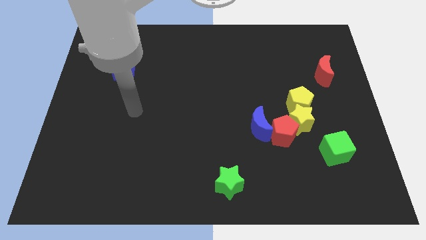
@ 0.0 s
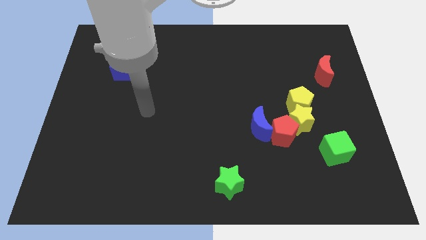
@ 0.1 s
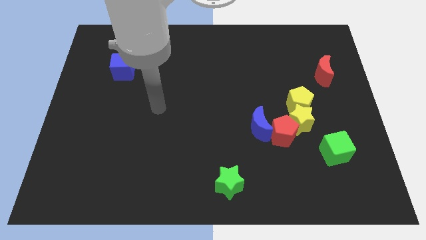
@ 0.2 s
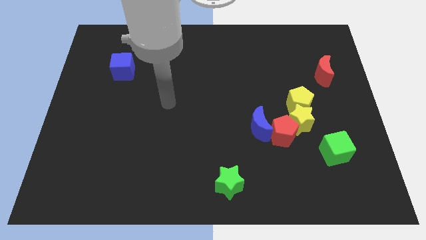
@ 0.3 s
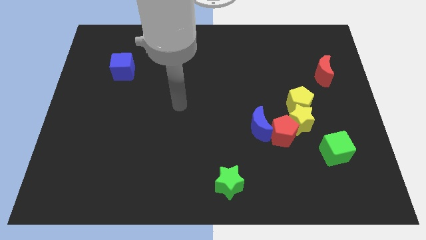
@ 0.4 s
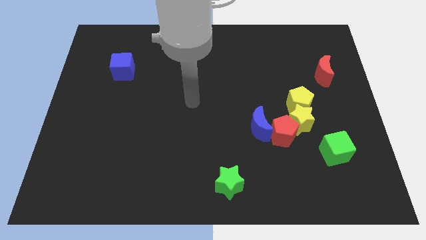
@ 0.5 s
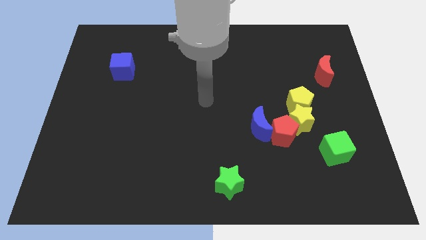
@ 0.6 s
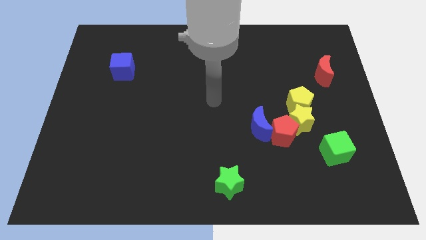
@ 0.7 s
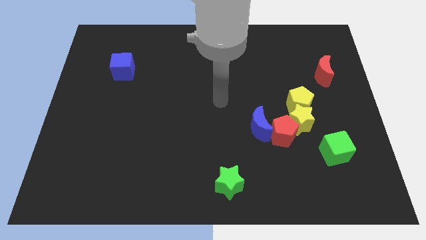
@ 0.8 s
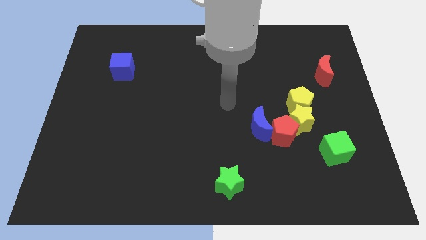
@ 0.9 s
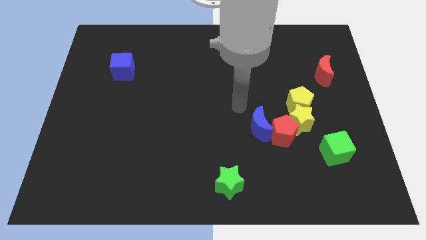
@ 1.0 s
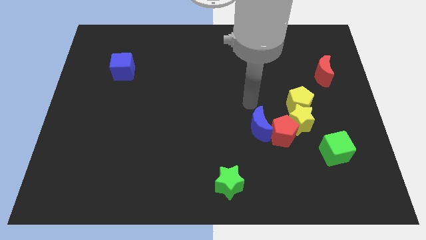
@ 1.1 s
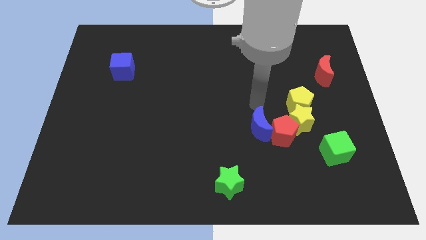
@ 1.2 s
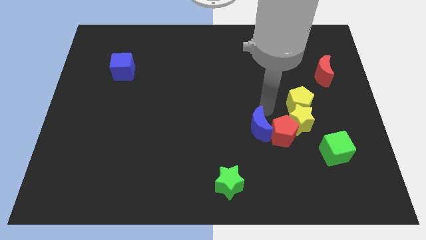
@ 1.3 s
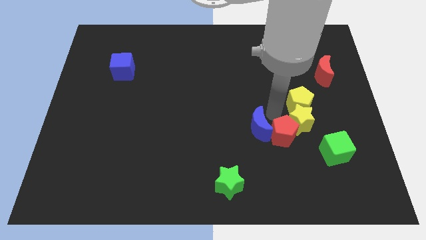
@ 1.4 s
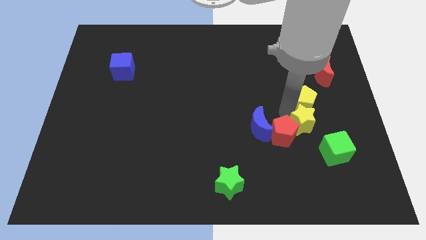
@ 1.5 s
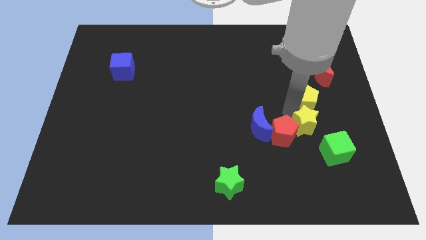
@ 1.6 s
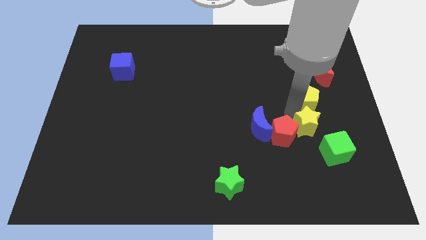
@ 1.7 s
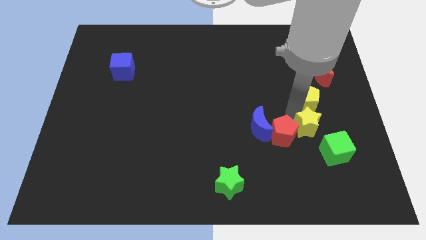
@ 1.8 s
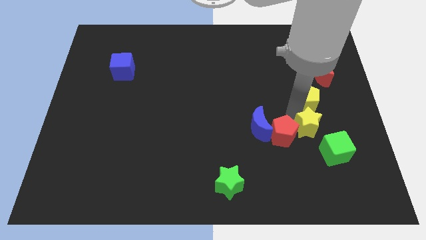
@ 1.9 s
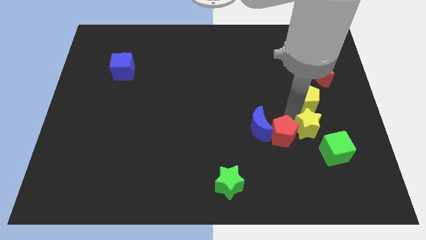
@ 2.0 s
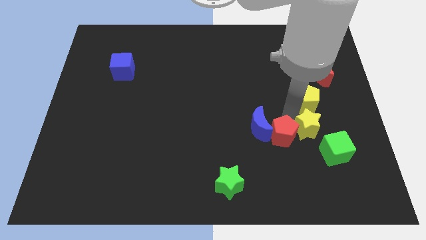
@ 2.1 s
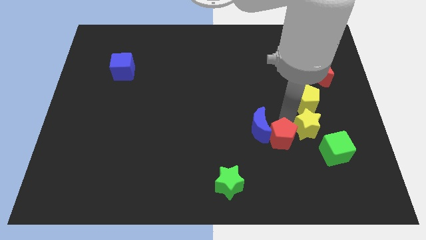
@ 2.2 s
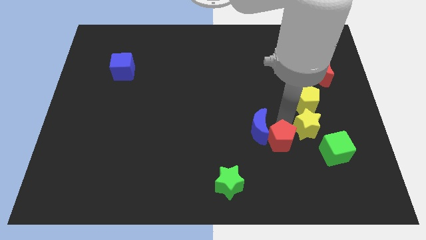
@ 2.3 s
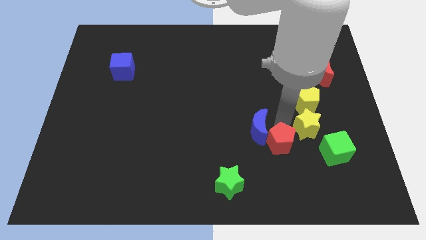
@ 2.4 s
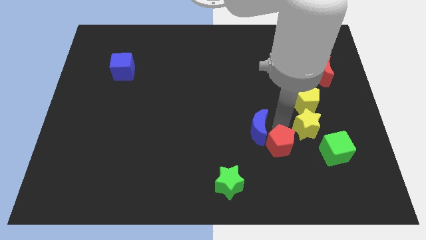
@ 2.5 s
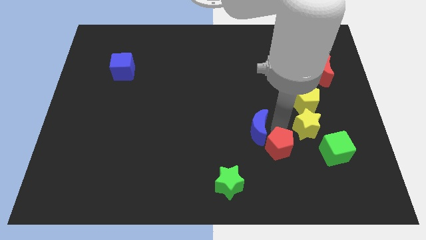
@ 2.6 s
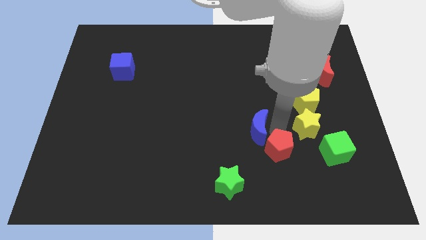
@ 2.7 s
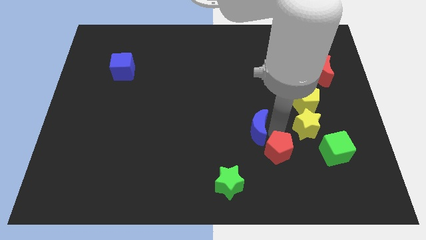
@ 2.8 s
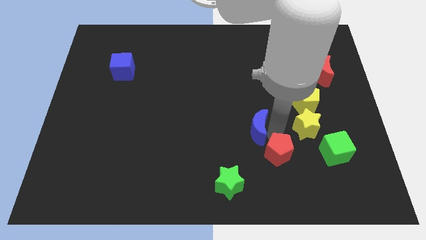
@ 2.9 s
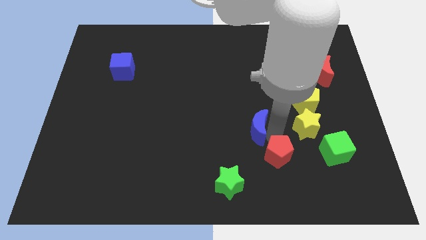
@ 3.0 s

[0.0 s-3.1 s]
separate the red pentagon from the yellow star, blue moon, and yellow pentagon

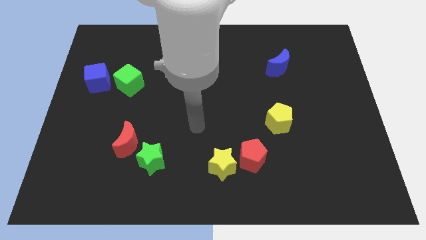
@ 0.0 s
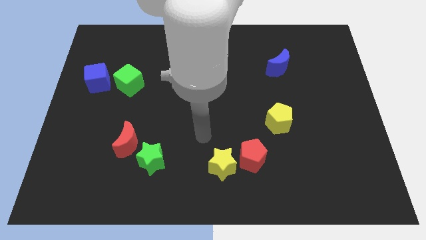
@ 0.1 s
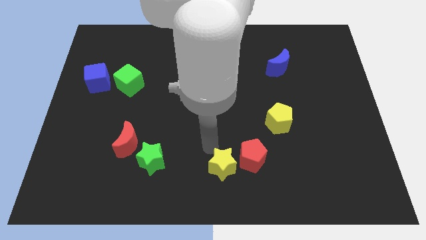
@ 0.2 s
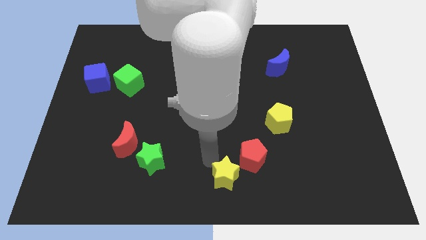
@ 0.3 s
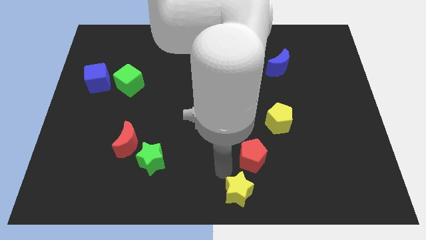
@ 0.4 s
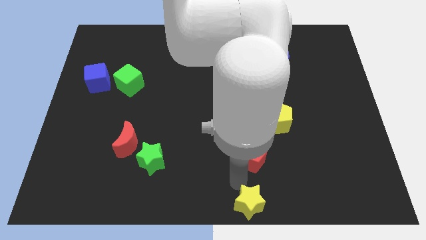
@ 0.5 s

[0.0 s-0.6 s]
pull the red pentagon apart from the yellow star

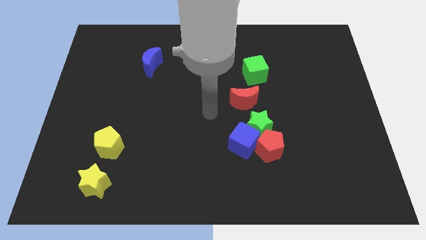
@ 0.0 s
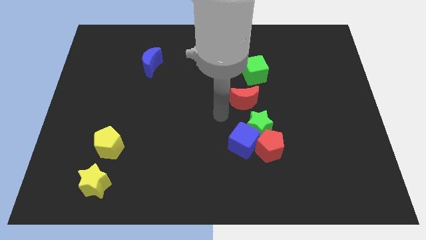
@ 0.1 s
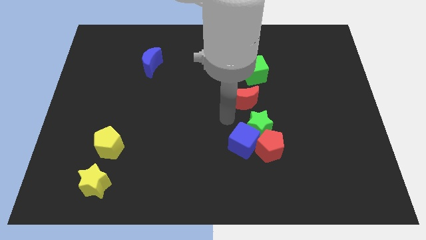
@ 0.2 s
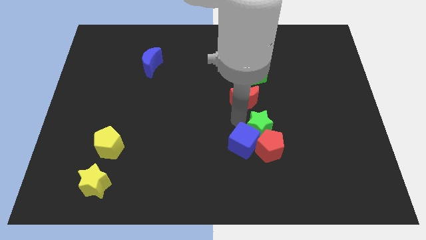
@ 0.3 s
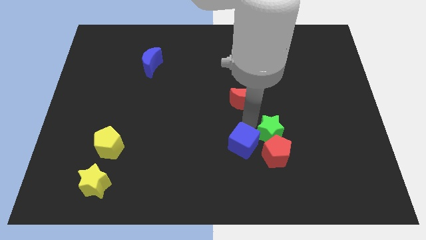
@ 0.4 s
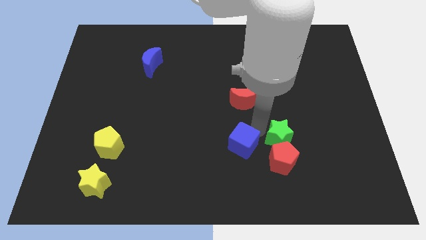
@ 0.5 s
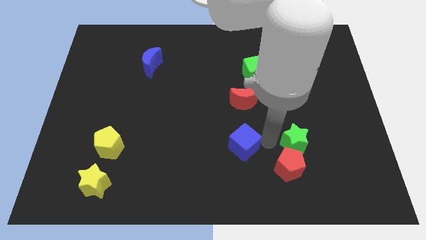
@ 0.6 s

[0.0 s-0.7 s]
move the blue cube away from the green star and red pentagon

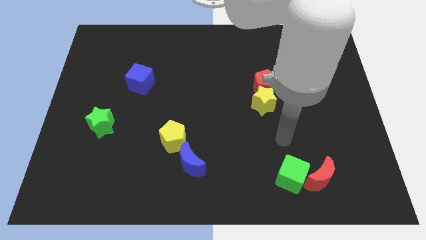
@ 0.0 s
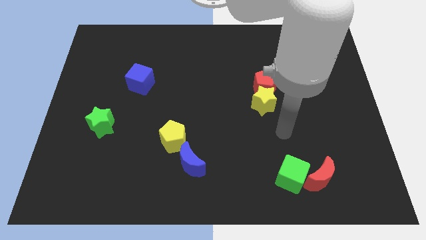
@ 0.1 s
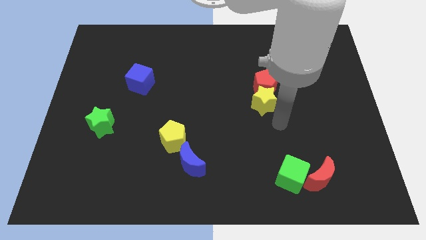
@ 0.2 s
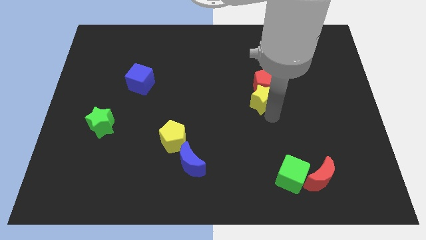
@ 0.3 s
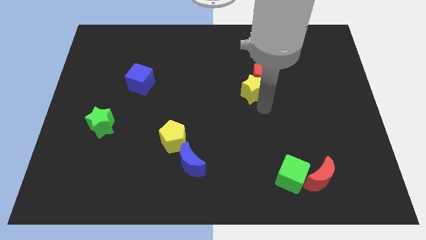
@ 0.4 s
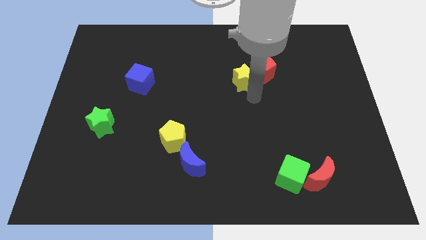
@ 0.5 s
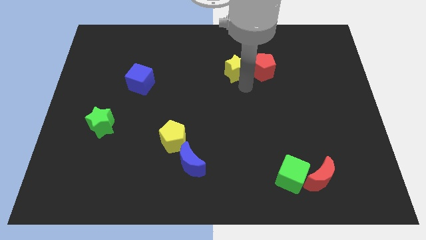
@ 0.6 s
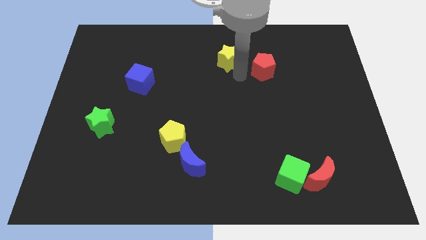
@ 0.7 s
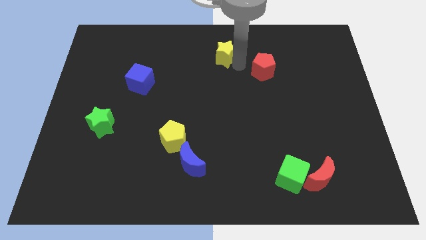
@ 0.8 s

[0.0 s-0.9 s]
move the red pentagon away from the yellow star

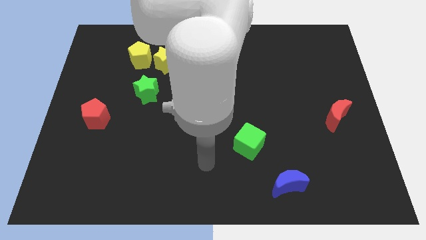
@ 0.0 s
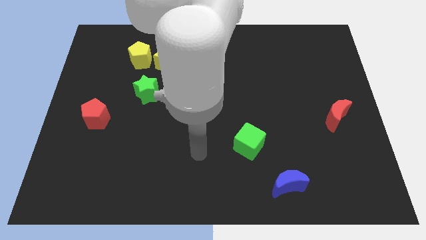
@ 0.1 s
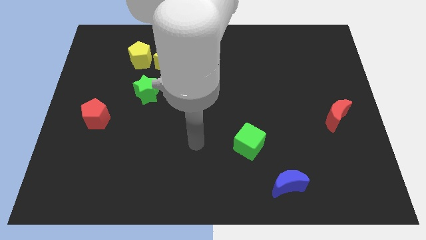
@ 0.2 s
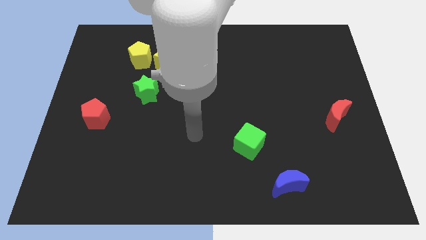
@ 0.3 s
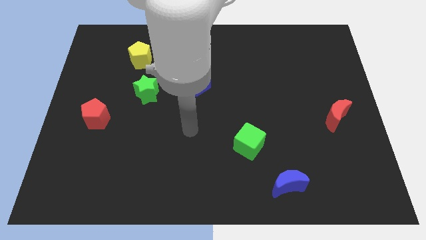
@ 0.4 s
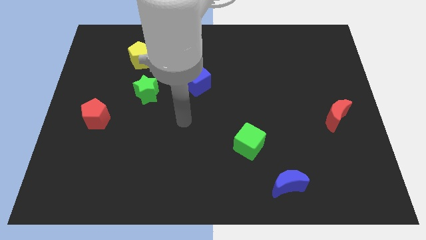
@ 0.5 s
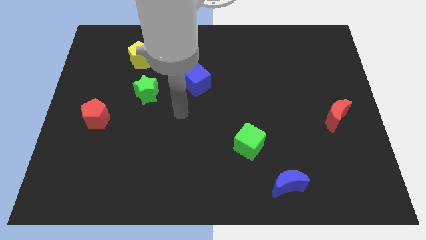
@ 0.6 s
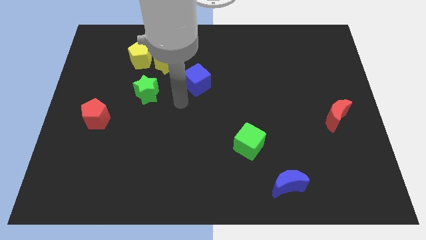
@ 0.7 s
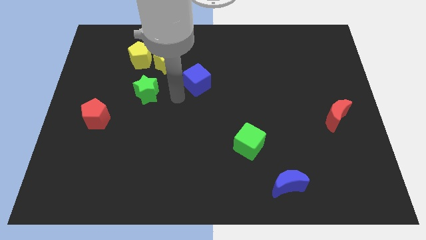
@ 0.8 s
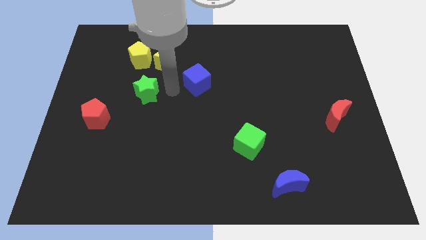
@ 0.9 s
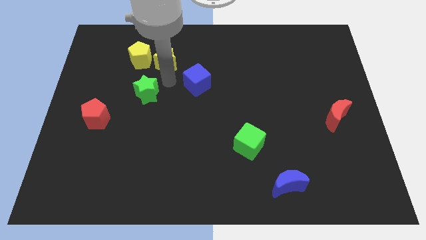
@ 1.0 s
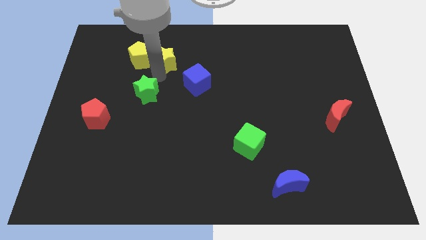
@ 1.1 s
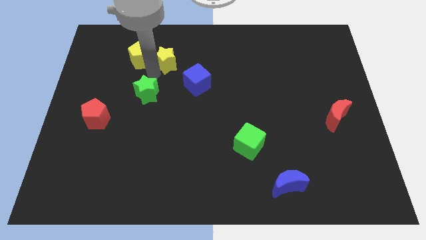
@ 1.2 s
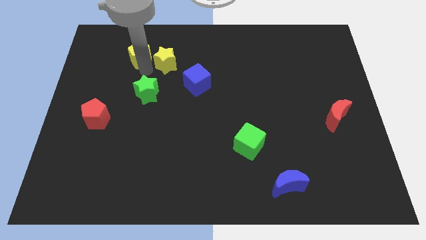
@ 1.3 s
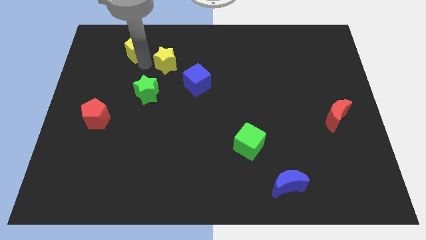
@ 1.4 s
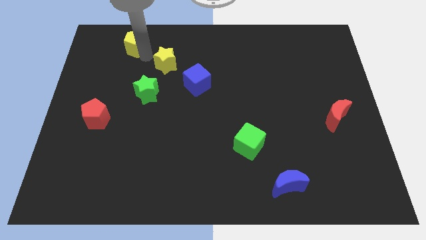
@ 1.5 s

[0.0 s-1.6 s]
move the yellow star away from the yellow pentagon

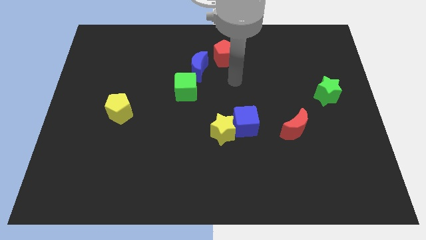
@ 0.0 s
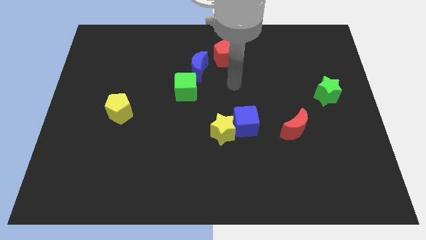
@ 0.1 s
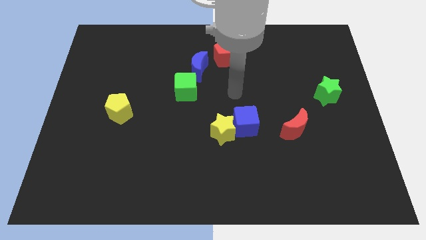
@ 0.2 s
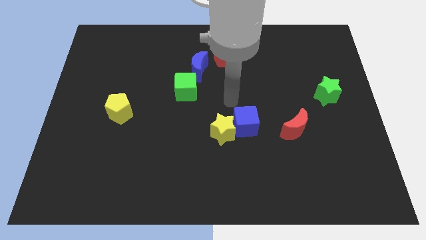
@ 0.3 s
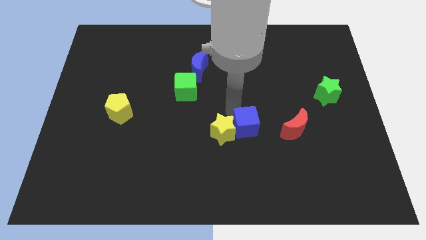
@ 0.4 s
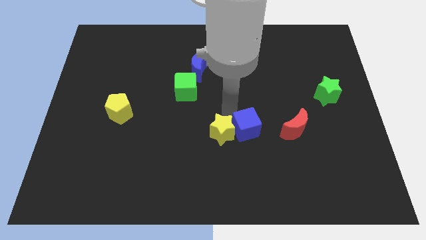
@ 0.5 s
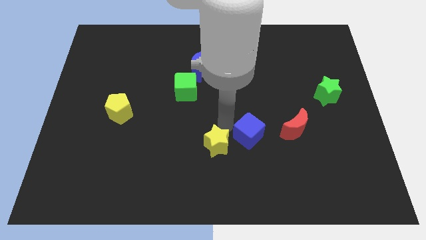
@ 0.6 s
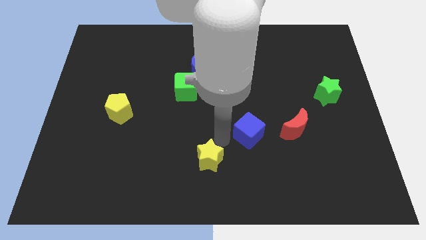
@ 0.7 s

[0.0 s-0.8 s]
move the blue cube away from the yellow star

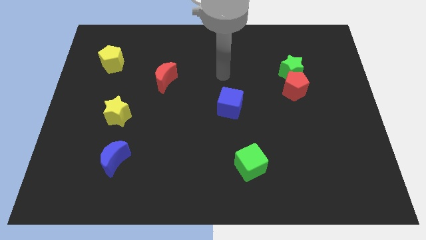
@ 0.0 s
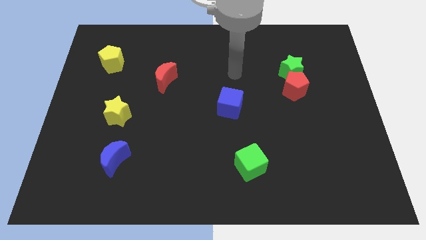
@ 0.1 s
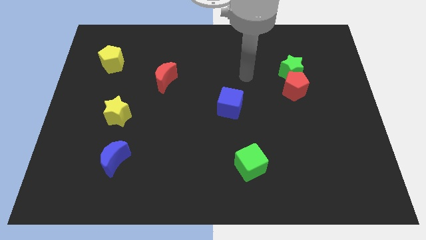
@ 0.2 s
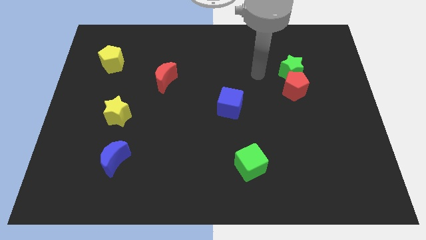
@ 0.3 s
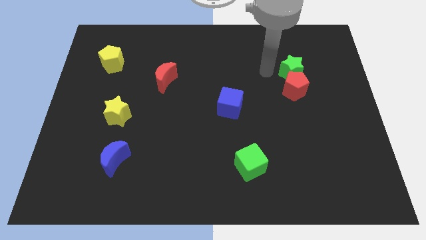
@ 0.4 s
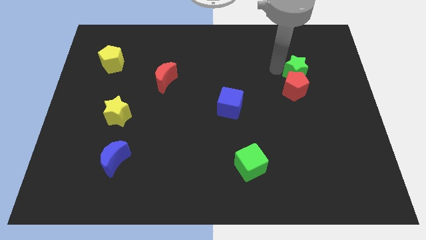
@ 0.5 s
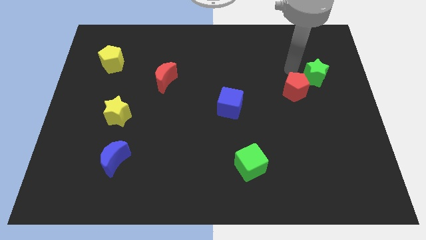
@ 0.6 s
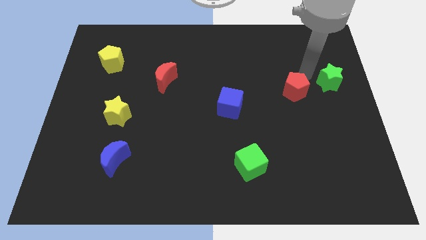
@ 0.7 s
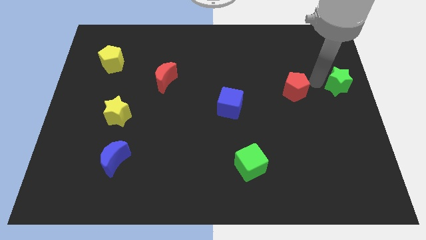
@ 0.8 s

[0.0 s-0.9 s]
separate the red pentagon from the green star

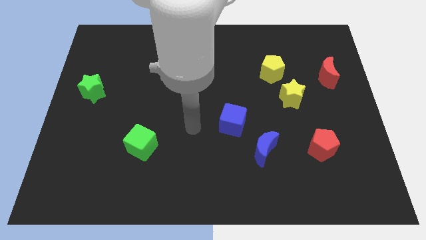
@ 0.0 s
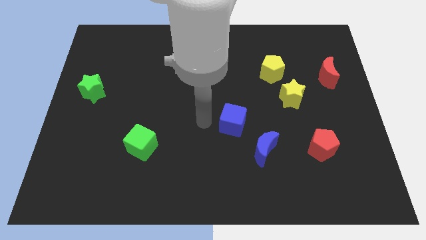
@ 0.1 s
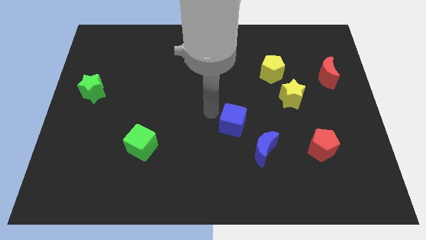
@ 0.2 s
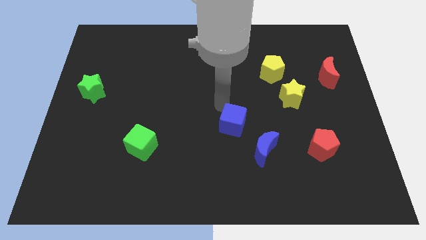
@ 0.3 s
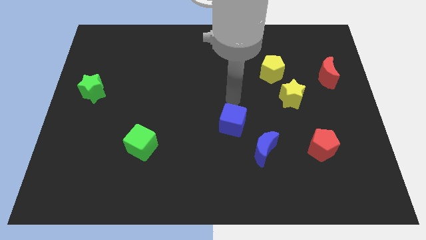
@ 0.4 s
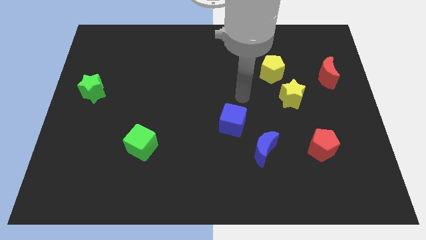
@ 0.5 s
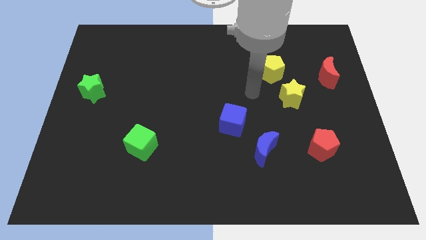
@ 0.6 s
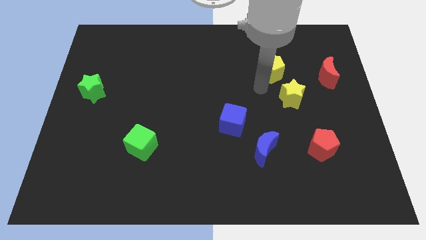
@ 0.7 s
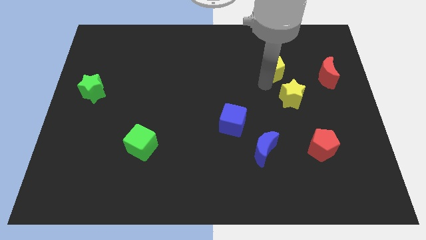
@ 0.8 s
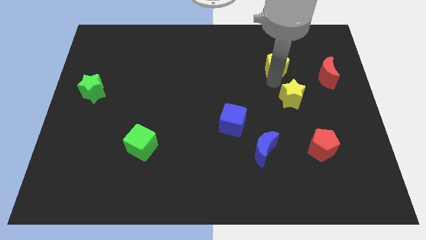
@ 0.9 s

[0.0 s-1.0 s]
pull the yellow star apart from the yellow pentagon
